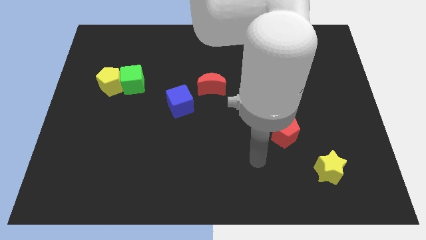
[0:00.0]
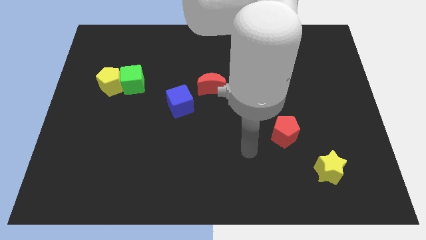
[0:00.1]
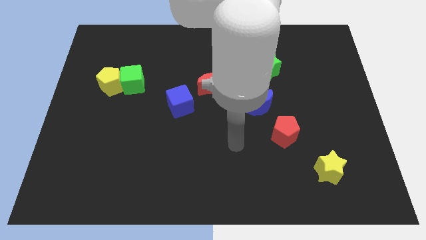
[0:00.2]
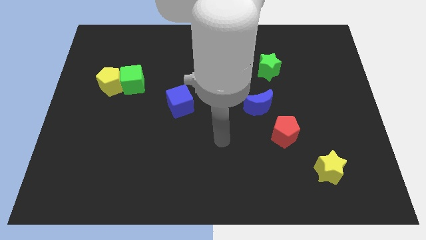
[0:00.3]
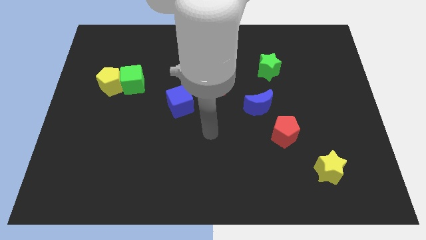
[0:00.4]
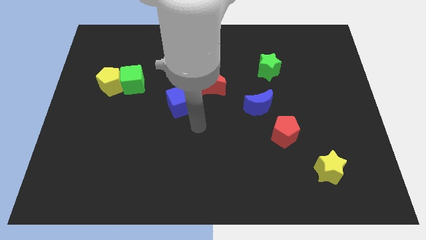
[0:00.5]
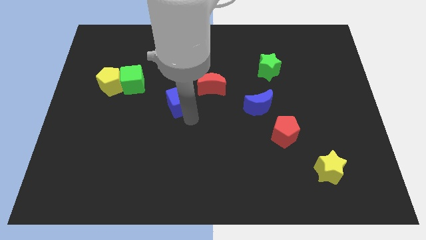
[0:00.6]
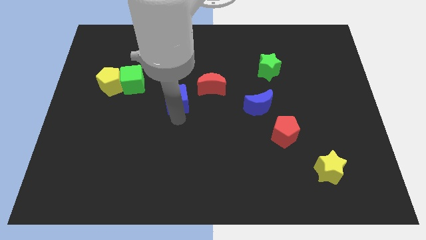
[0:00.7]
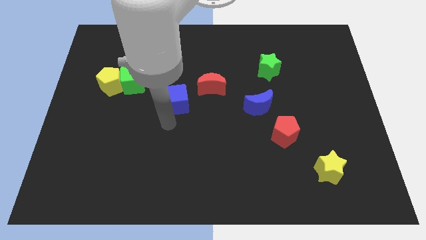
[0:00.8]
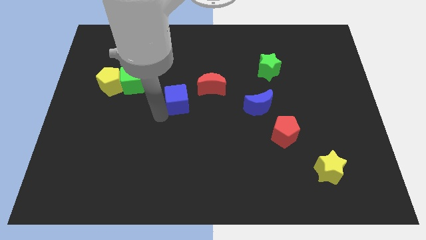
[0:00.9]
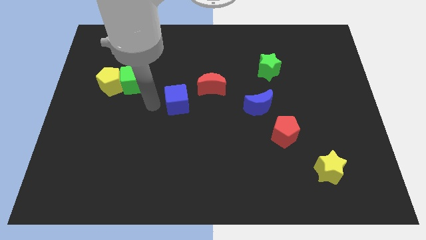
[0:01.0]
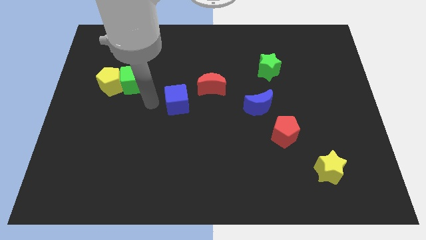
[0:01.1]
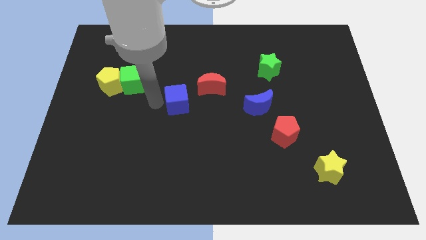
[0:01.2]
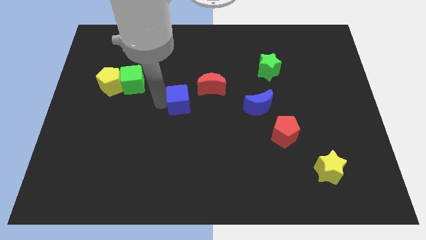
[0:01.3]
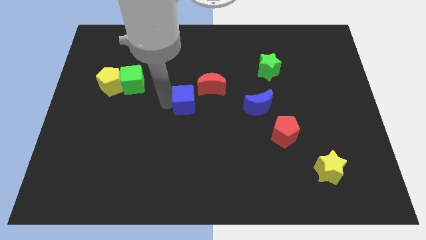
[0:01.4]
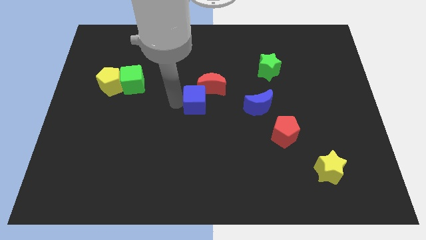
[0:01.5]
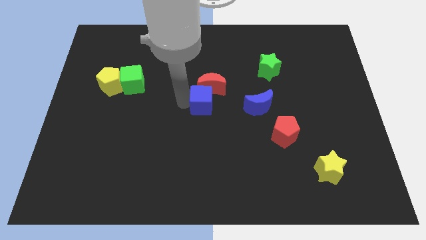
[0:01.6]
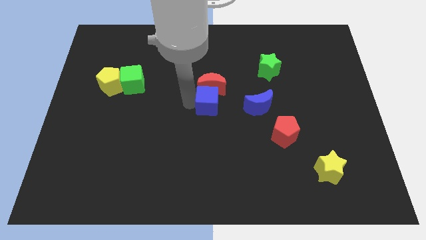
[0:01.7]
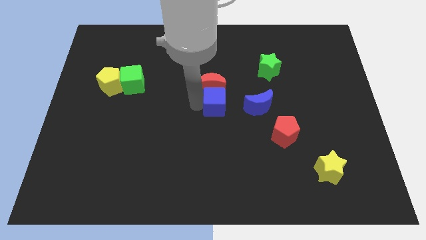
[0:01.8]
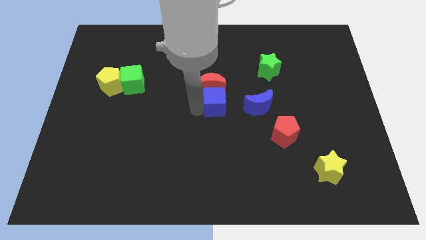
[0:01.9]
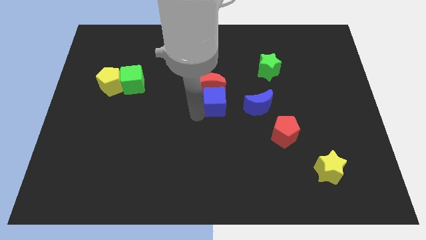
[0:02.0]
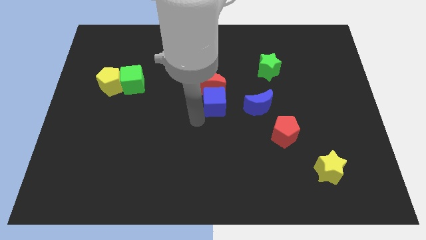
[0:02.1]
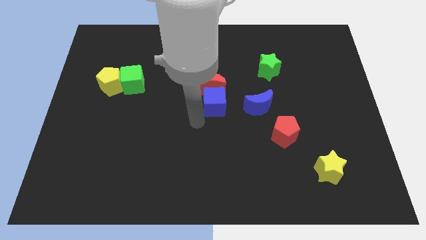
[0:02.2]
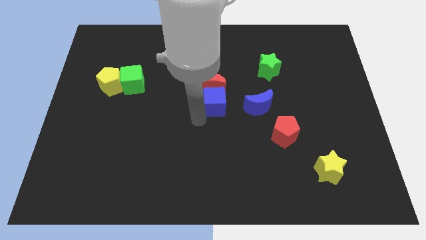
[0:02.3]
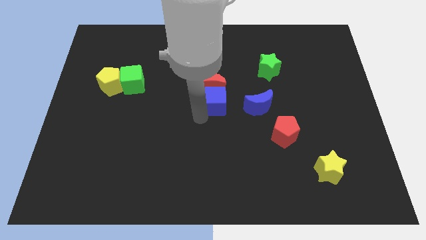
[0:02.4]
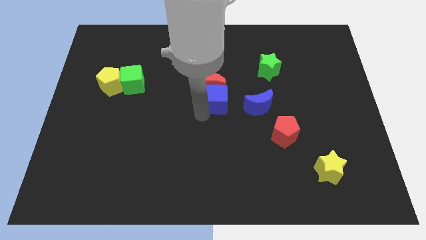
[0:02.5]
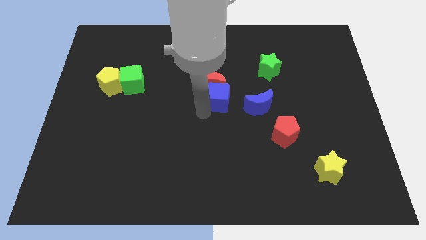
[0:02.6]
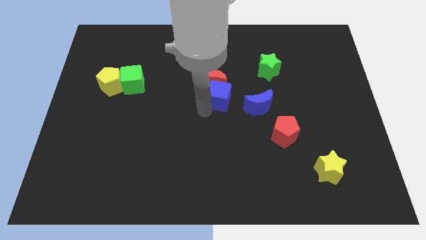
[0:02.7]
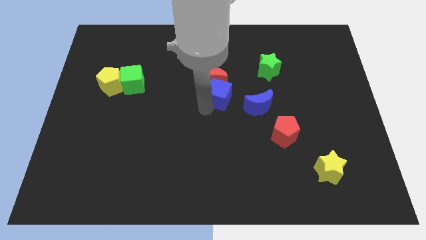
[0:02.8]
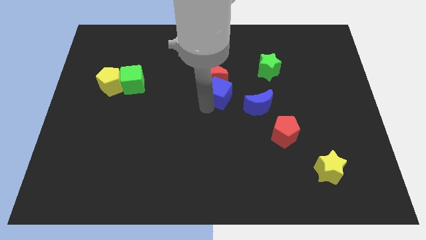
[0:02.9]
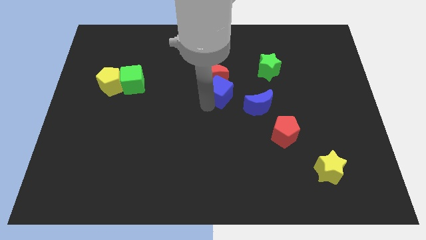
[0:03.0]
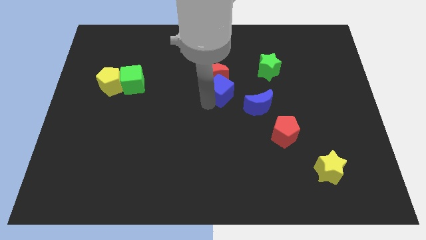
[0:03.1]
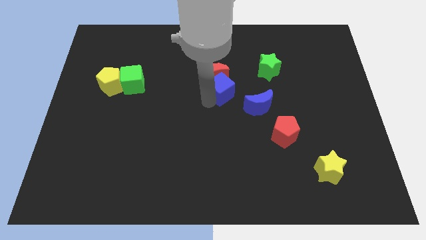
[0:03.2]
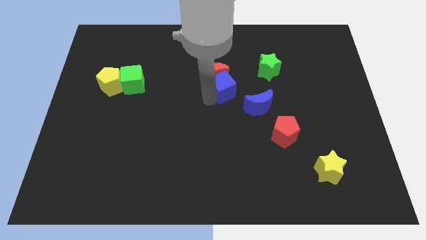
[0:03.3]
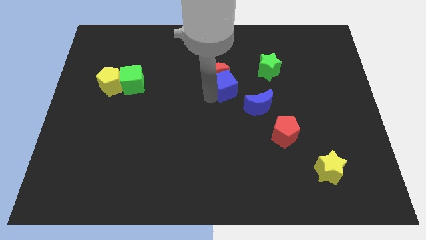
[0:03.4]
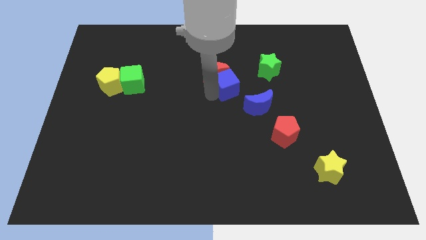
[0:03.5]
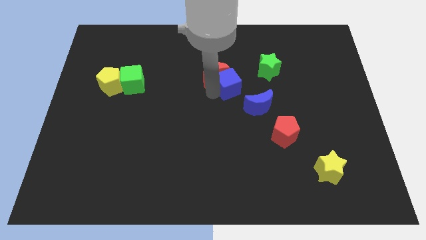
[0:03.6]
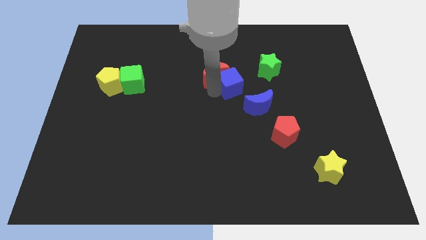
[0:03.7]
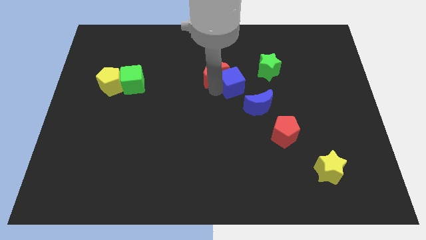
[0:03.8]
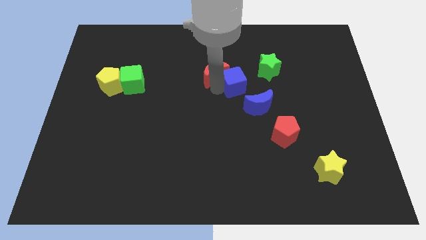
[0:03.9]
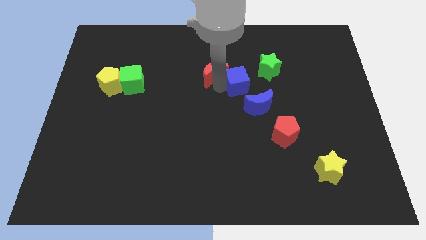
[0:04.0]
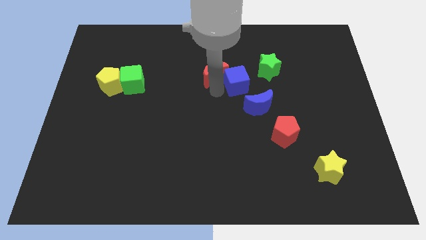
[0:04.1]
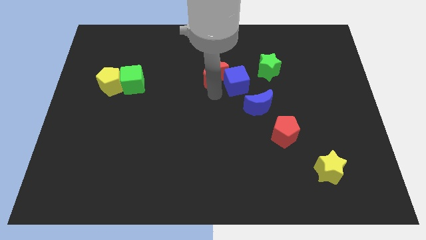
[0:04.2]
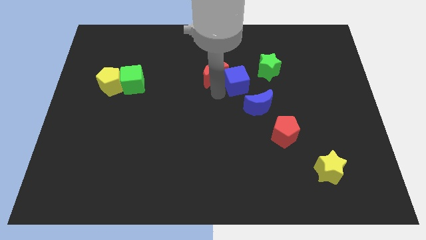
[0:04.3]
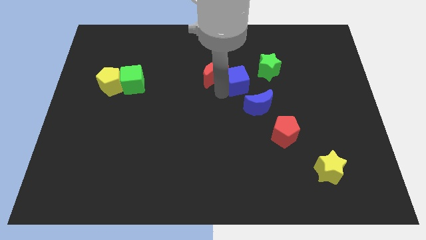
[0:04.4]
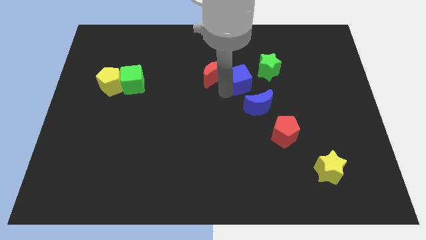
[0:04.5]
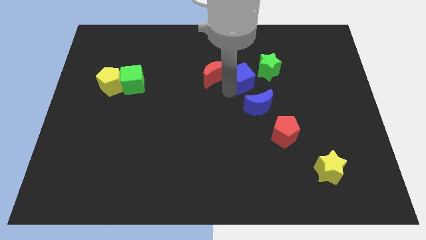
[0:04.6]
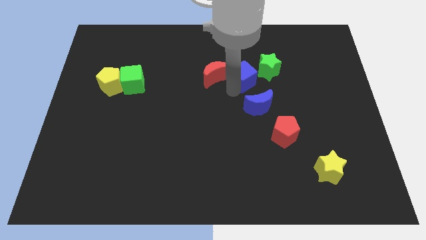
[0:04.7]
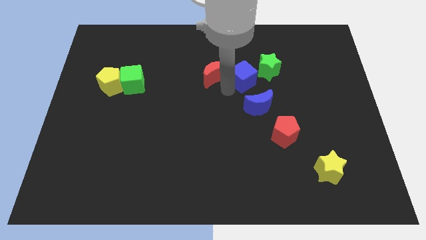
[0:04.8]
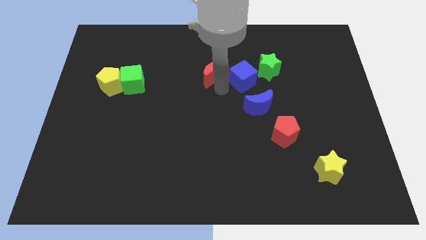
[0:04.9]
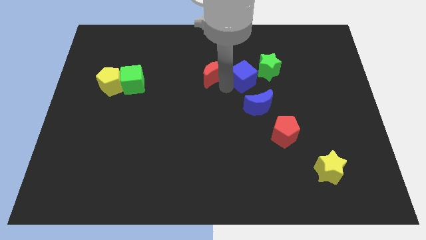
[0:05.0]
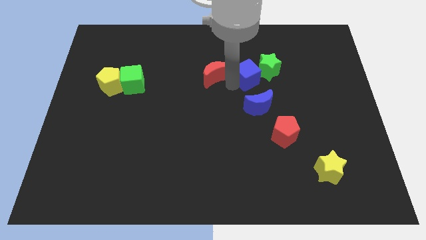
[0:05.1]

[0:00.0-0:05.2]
slide the blue cube next to the green star

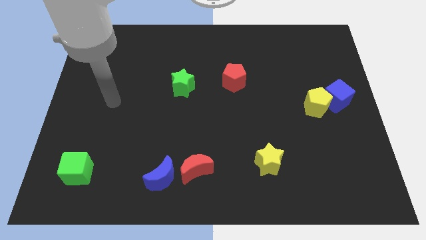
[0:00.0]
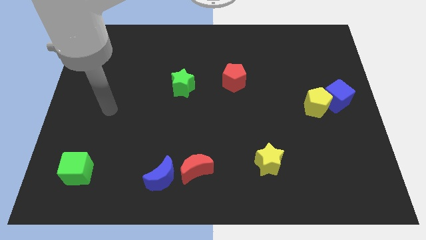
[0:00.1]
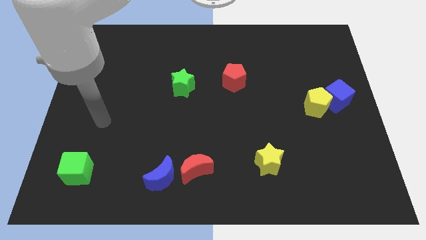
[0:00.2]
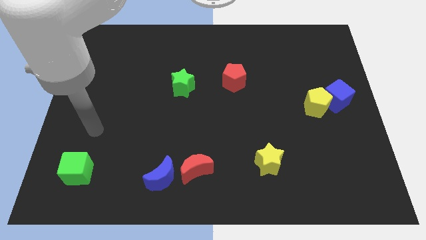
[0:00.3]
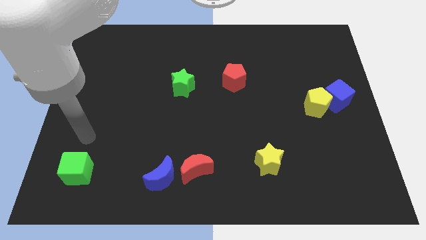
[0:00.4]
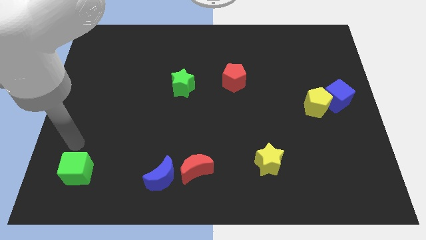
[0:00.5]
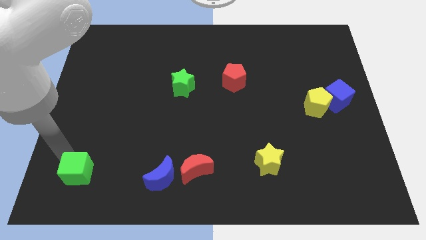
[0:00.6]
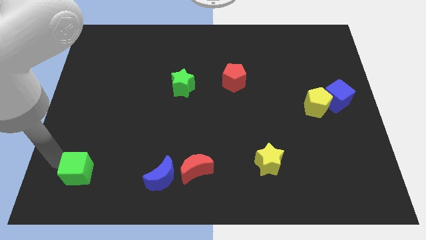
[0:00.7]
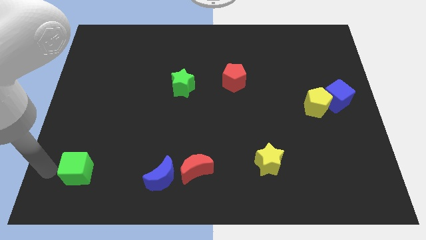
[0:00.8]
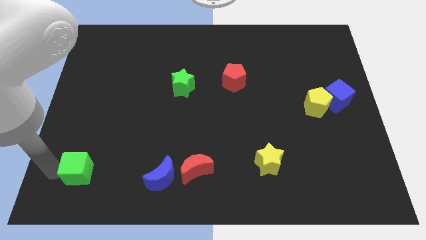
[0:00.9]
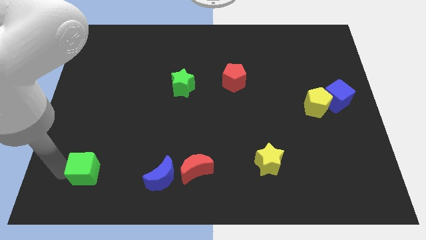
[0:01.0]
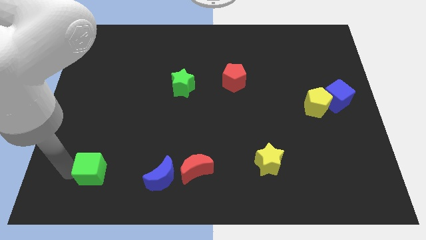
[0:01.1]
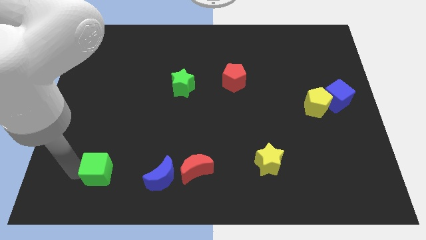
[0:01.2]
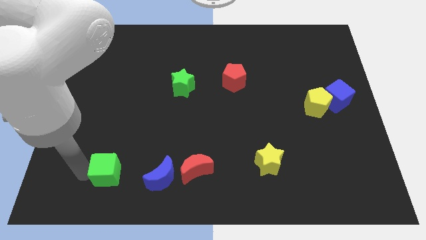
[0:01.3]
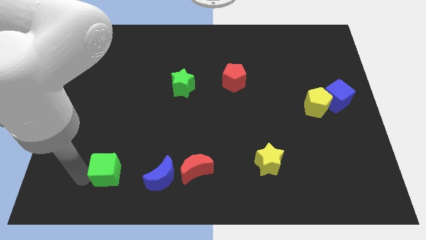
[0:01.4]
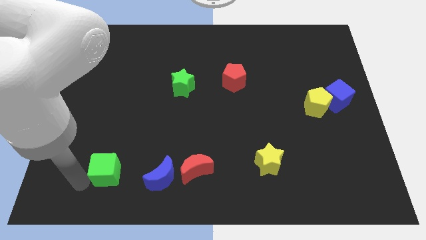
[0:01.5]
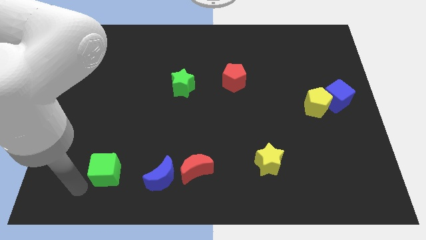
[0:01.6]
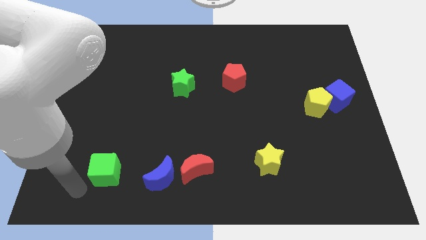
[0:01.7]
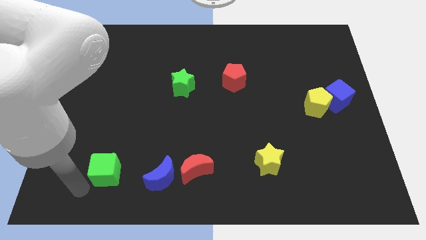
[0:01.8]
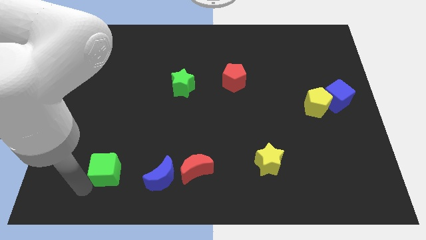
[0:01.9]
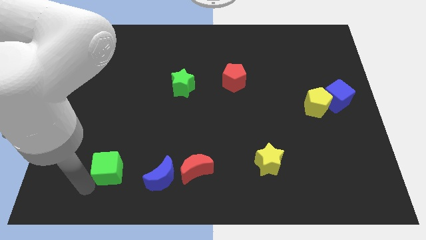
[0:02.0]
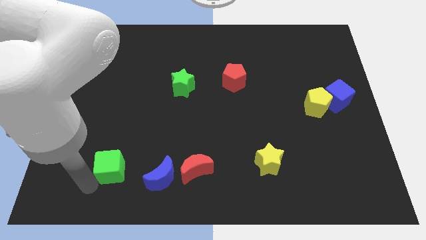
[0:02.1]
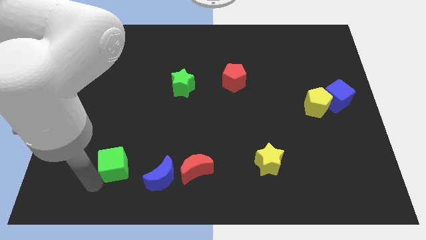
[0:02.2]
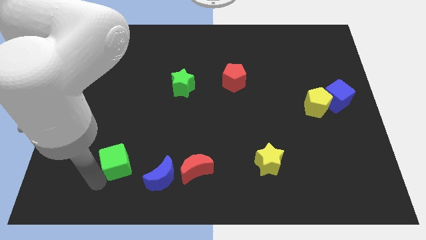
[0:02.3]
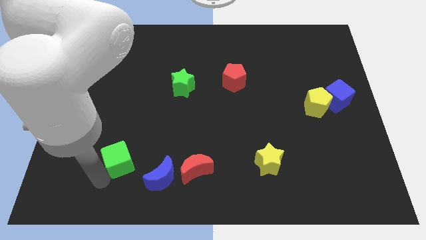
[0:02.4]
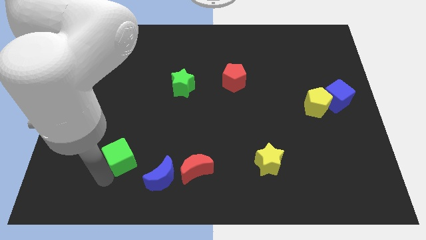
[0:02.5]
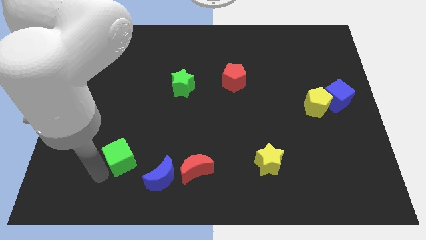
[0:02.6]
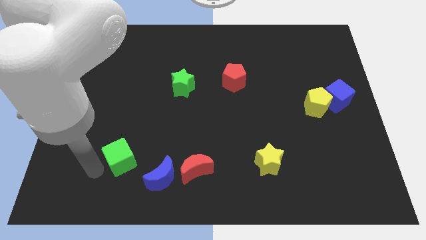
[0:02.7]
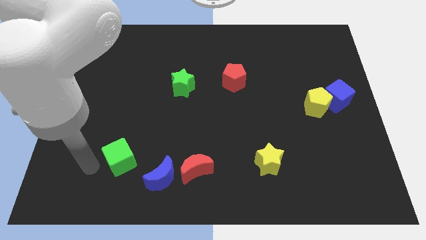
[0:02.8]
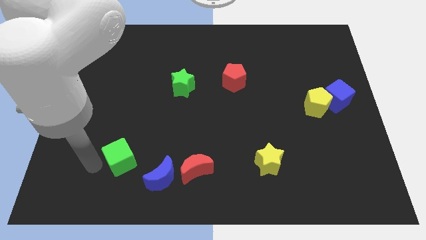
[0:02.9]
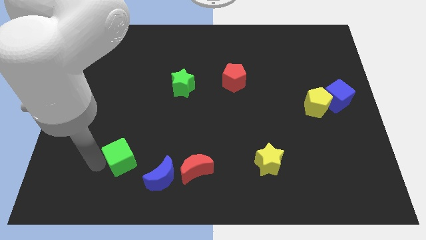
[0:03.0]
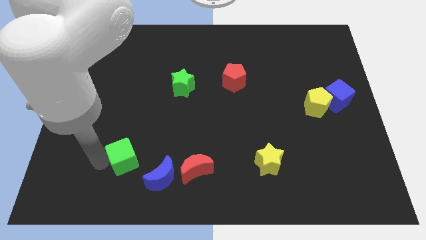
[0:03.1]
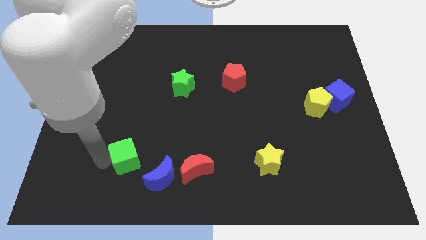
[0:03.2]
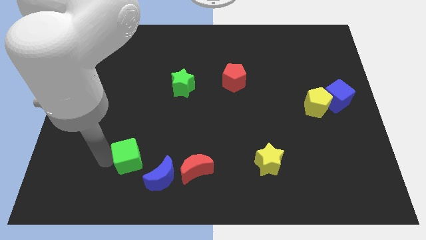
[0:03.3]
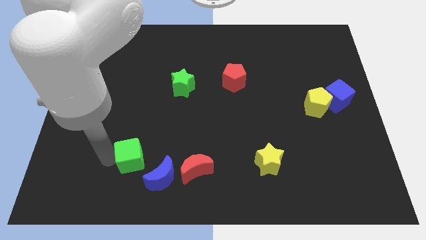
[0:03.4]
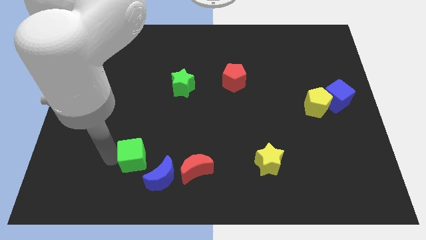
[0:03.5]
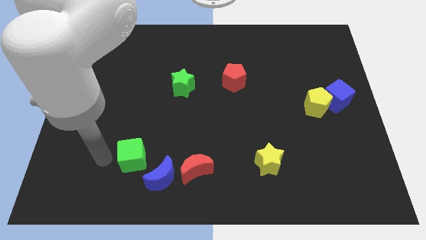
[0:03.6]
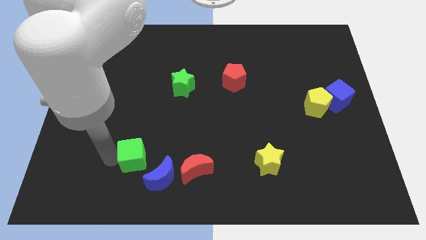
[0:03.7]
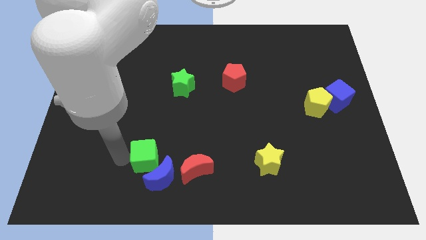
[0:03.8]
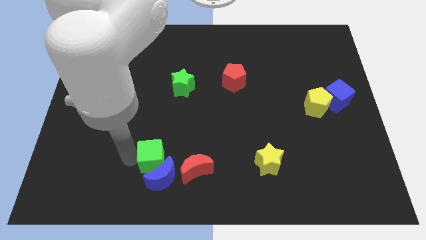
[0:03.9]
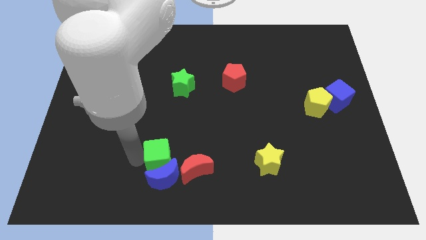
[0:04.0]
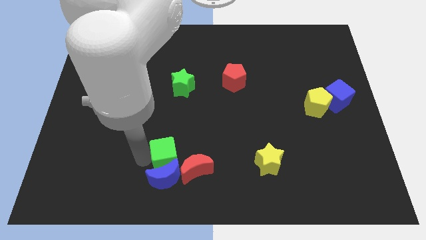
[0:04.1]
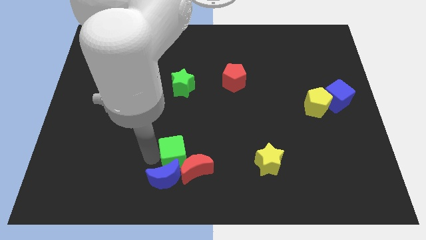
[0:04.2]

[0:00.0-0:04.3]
move the green cube to the red moon
